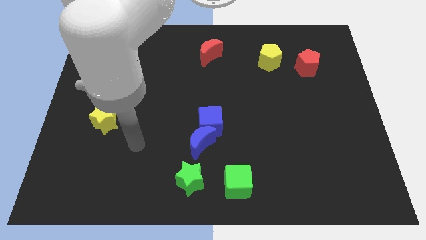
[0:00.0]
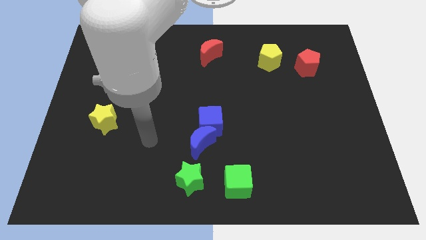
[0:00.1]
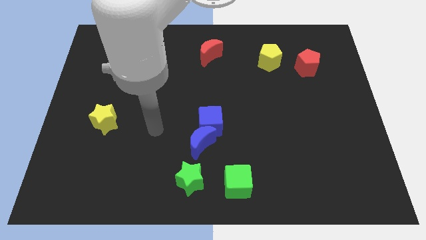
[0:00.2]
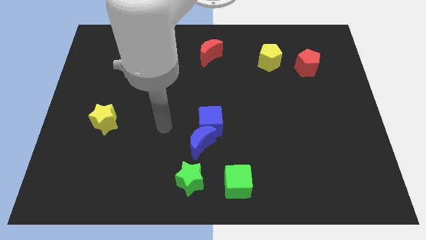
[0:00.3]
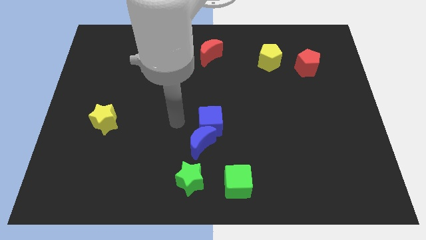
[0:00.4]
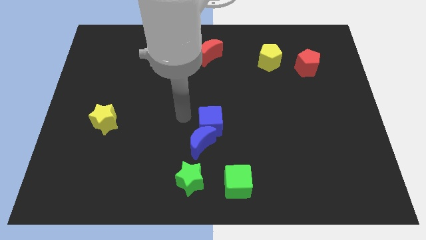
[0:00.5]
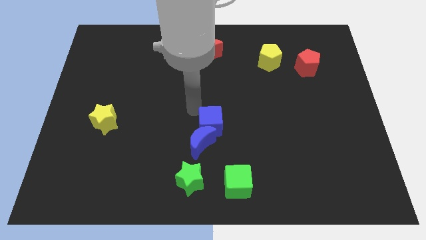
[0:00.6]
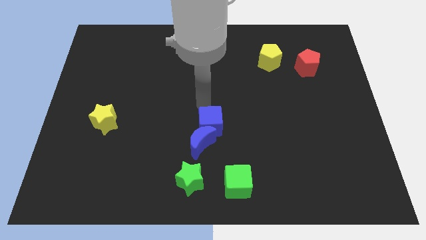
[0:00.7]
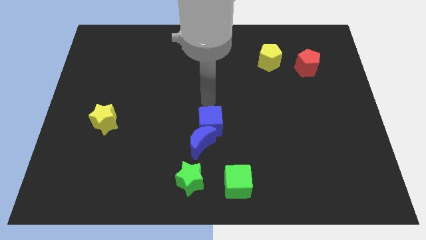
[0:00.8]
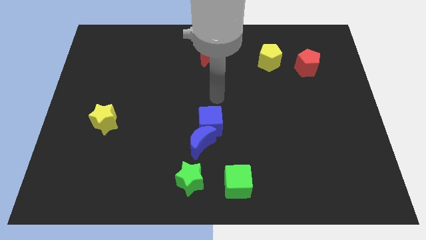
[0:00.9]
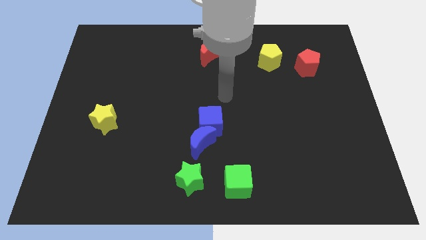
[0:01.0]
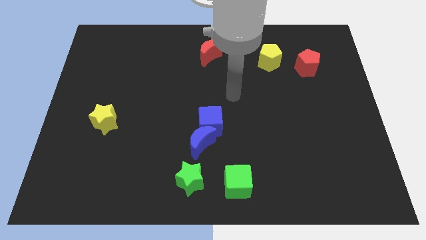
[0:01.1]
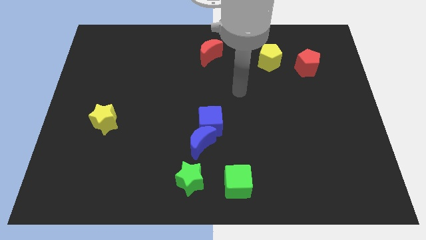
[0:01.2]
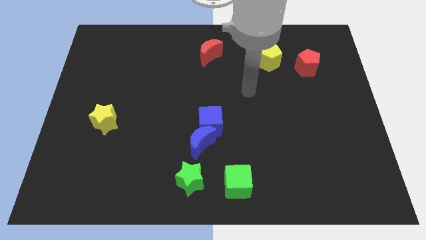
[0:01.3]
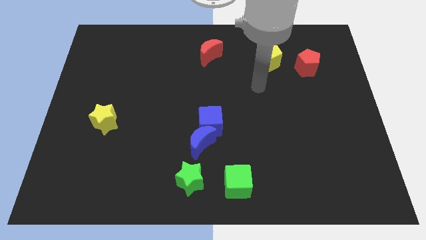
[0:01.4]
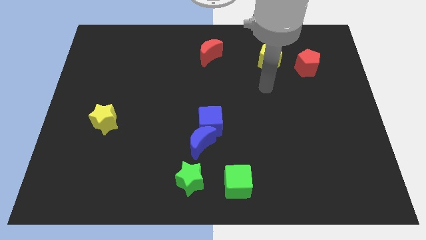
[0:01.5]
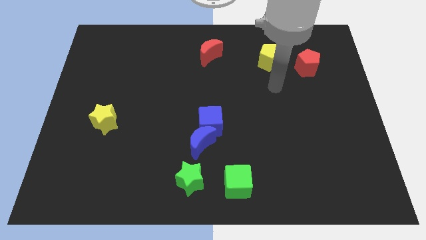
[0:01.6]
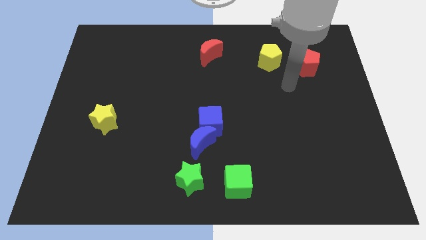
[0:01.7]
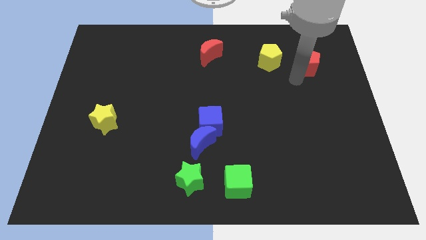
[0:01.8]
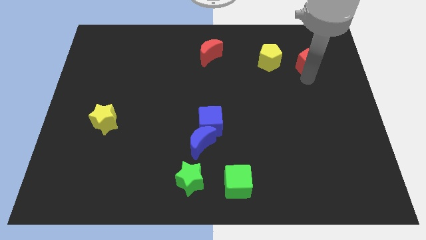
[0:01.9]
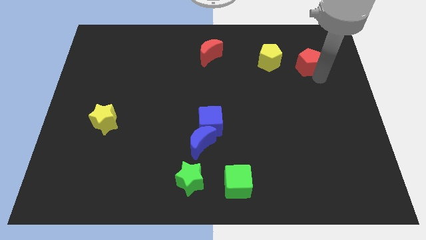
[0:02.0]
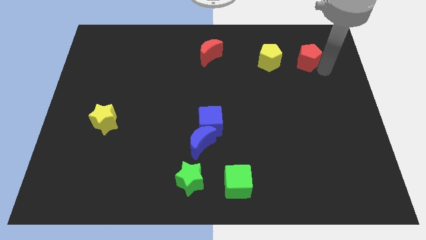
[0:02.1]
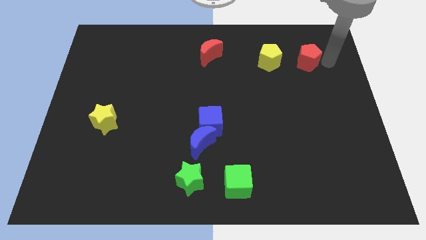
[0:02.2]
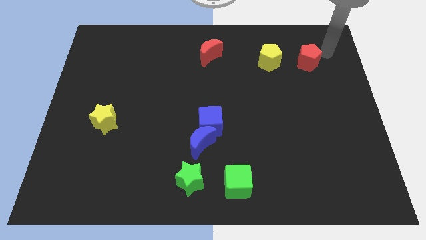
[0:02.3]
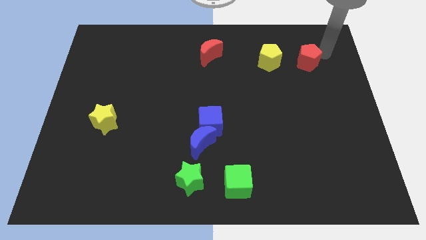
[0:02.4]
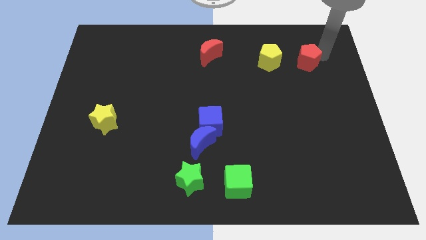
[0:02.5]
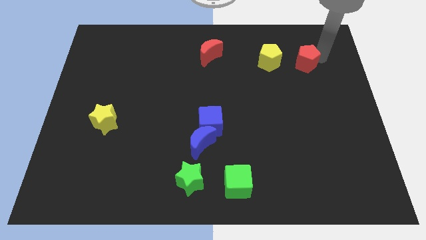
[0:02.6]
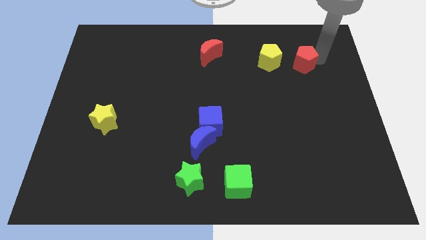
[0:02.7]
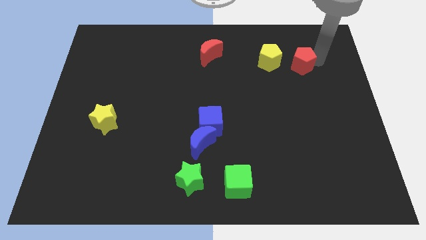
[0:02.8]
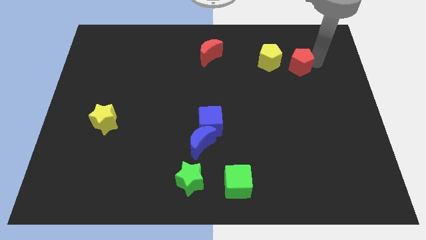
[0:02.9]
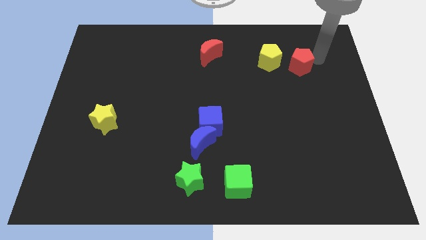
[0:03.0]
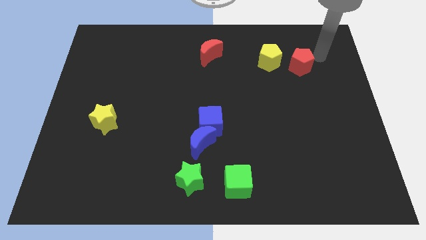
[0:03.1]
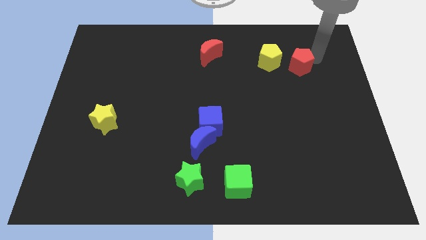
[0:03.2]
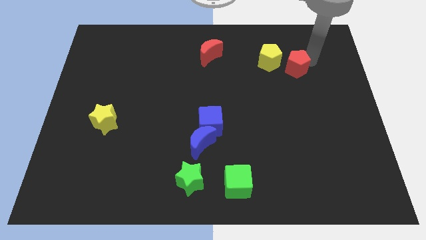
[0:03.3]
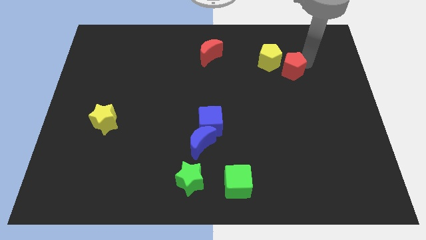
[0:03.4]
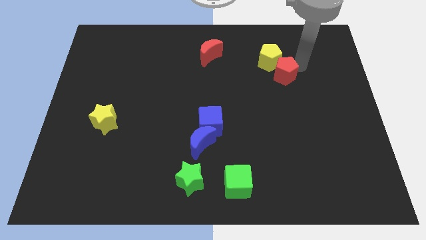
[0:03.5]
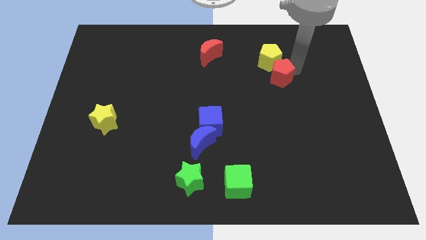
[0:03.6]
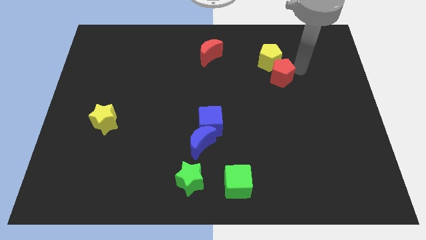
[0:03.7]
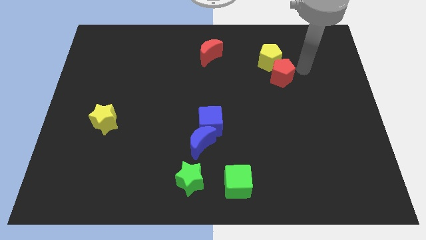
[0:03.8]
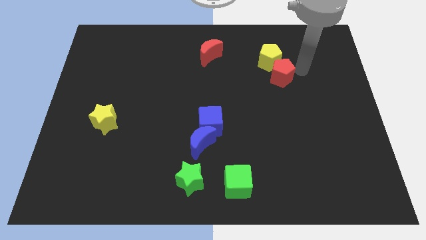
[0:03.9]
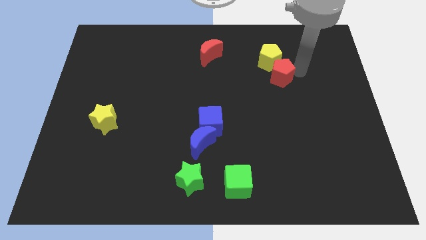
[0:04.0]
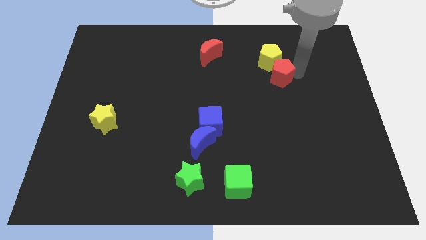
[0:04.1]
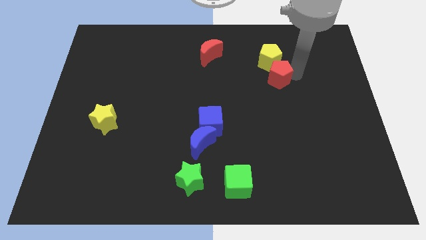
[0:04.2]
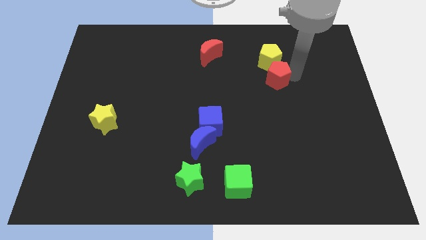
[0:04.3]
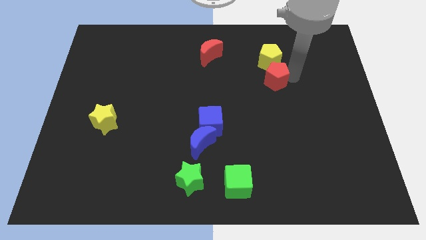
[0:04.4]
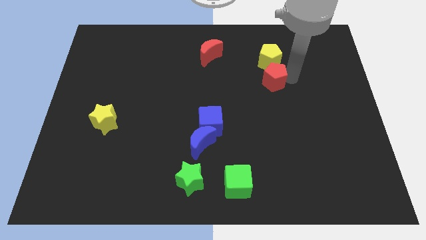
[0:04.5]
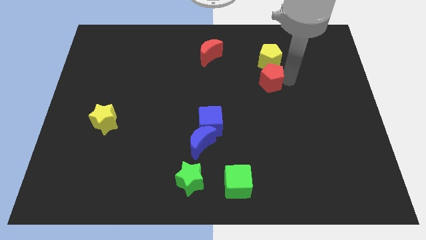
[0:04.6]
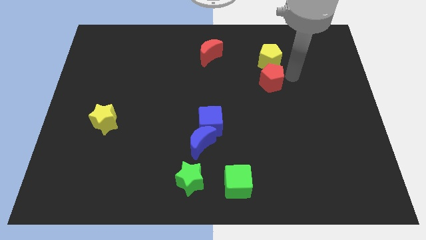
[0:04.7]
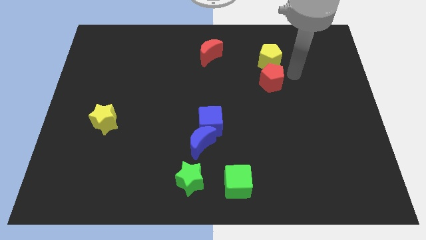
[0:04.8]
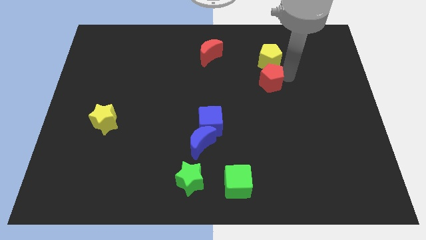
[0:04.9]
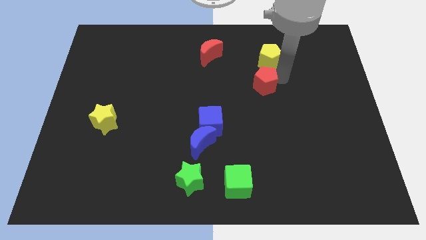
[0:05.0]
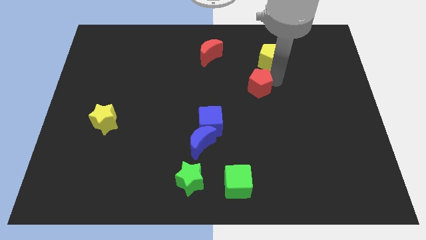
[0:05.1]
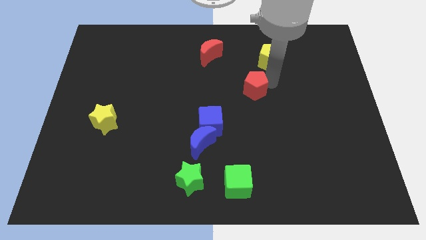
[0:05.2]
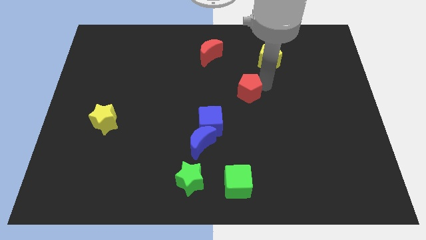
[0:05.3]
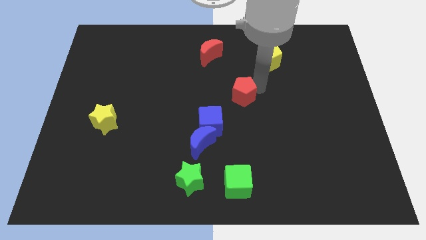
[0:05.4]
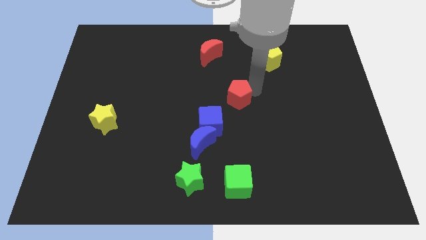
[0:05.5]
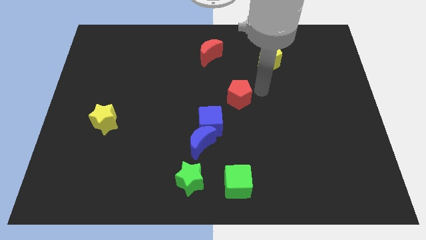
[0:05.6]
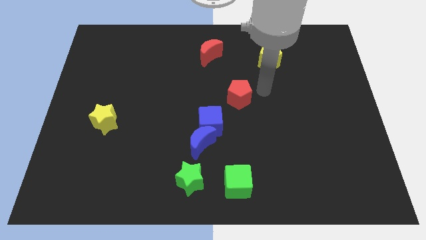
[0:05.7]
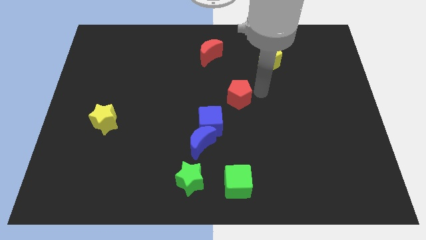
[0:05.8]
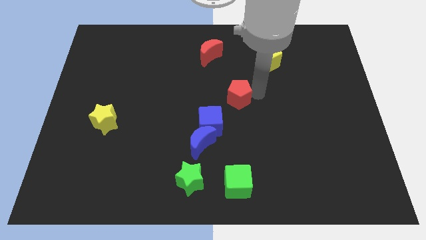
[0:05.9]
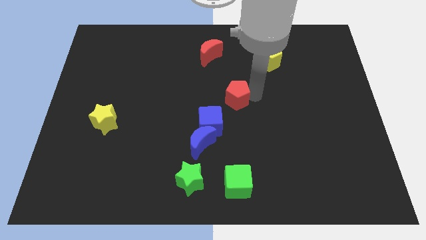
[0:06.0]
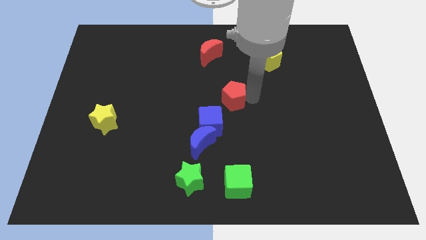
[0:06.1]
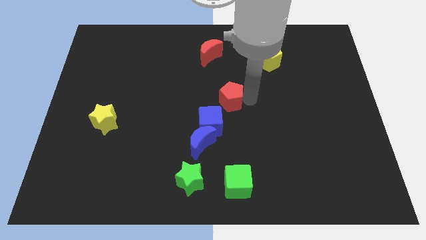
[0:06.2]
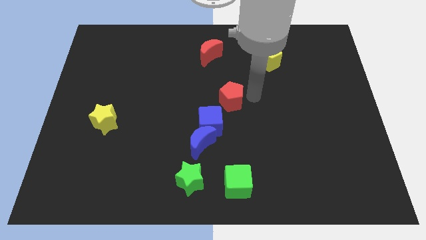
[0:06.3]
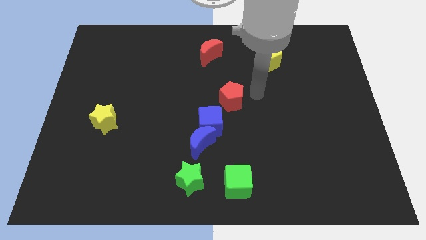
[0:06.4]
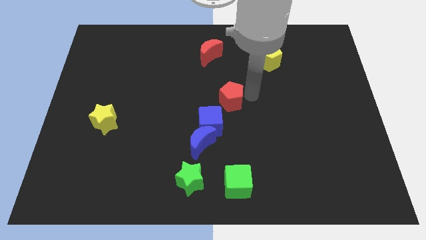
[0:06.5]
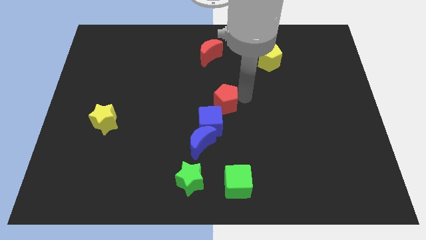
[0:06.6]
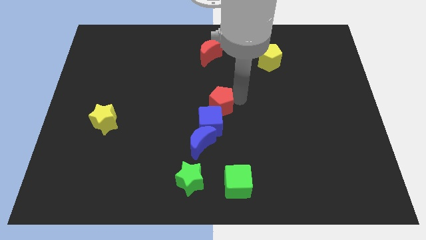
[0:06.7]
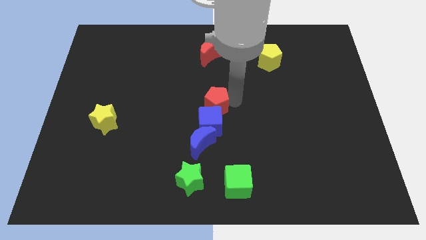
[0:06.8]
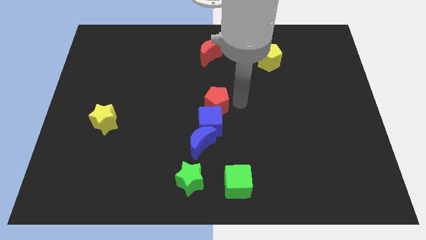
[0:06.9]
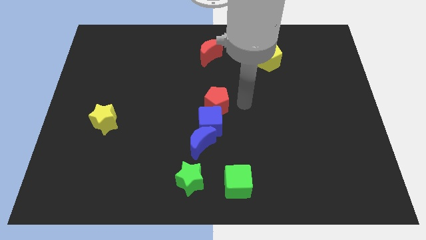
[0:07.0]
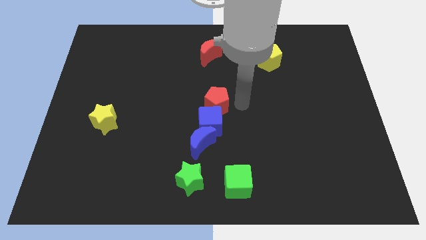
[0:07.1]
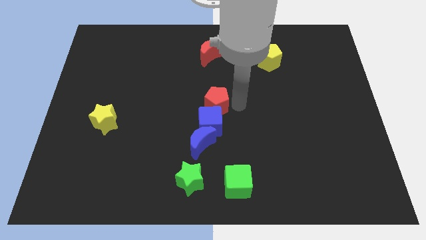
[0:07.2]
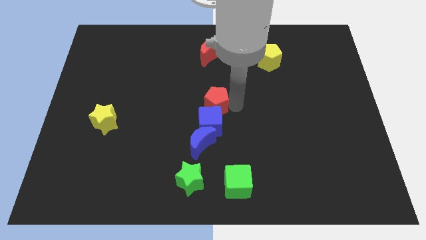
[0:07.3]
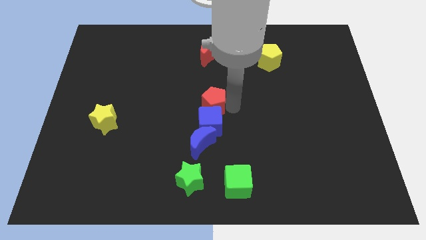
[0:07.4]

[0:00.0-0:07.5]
slide the red pentagon to the top left of the blue cube

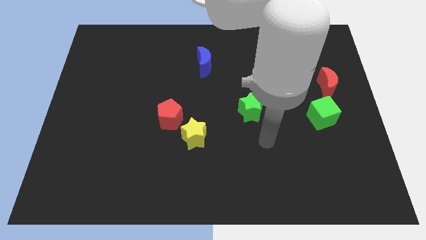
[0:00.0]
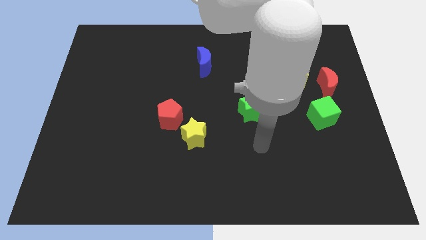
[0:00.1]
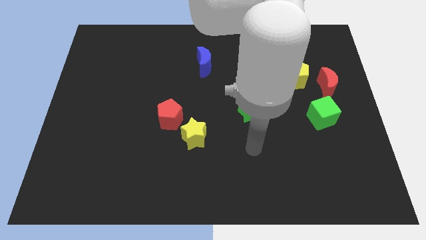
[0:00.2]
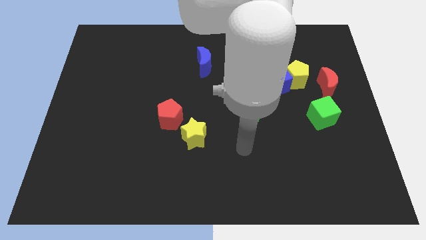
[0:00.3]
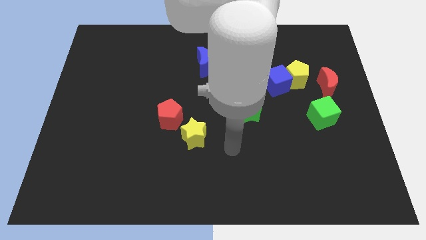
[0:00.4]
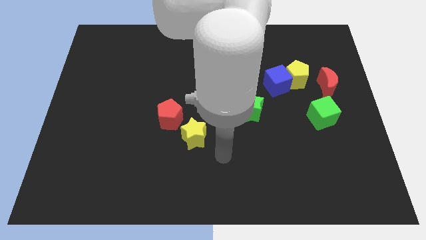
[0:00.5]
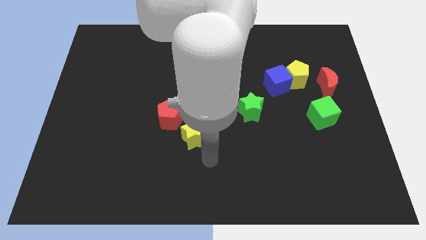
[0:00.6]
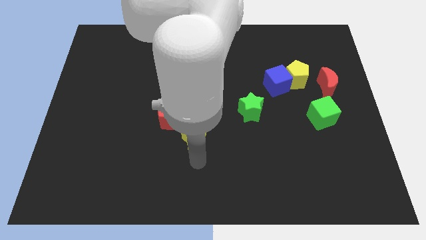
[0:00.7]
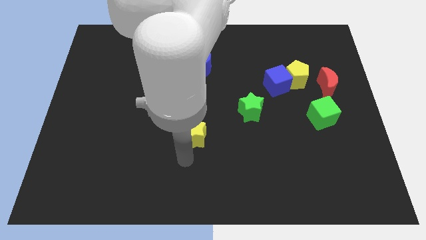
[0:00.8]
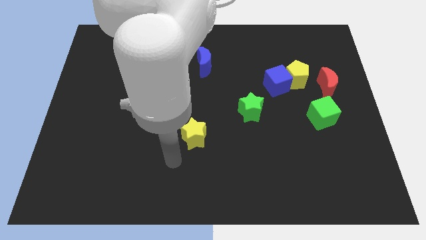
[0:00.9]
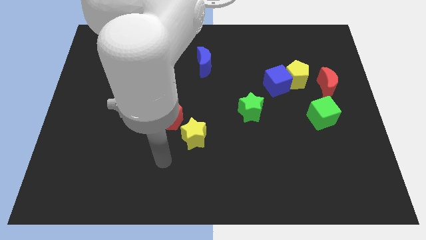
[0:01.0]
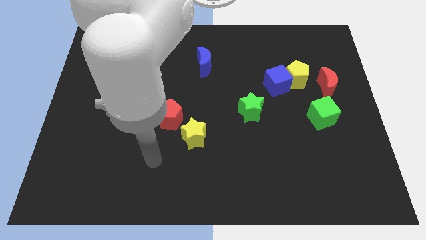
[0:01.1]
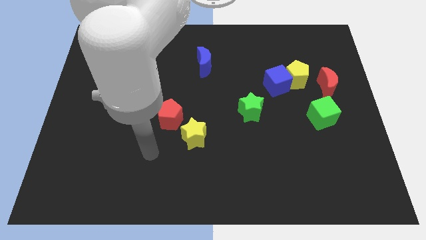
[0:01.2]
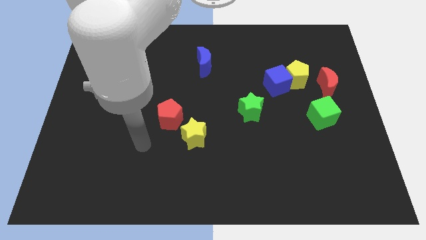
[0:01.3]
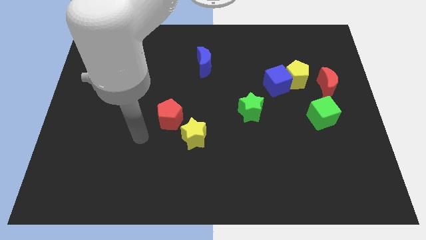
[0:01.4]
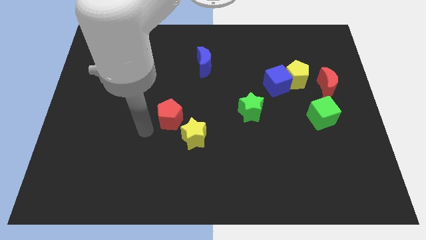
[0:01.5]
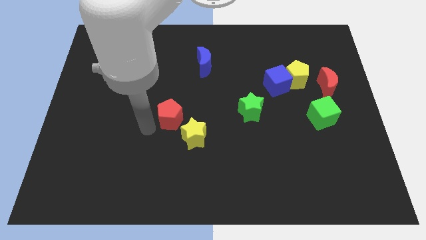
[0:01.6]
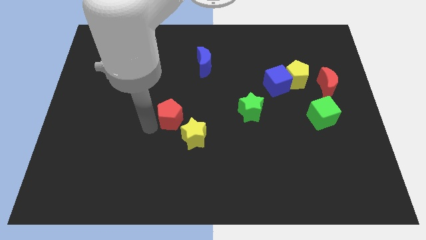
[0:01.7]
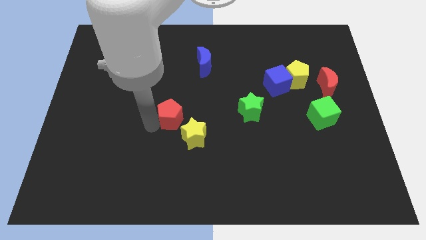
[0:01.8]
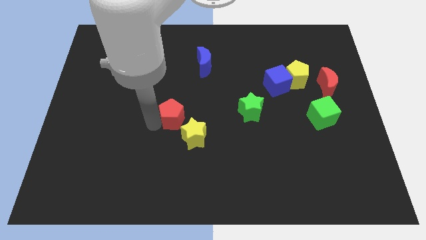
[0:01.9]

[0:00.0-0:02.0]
move the red pentagon to the top side of the yellow star
